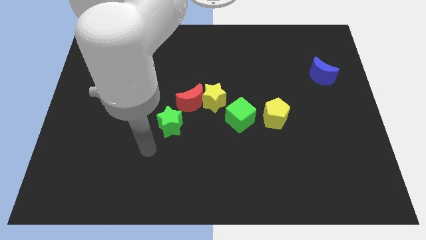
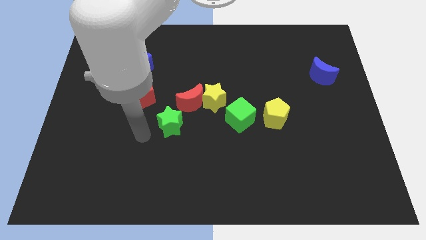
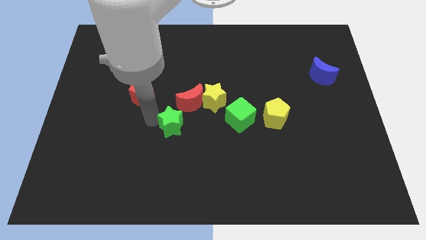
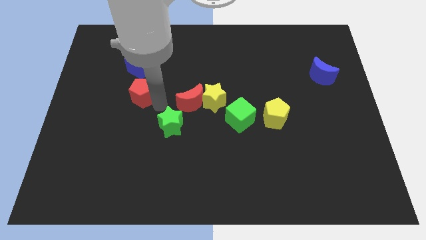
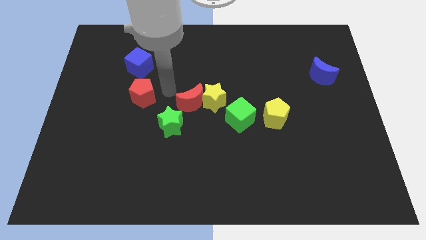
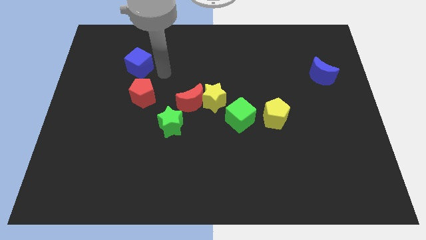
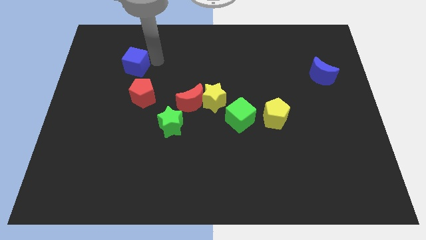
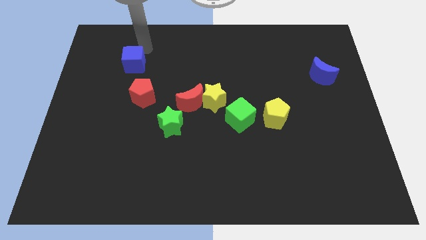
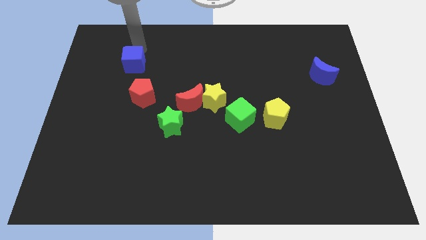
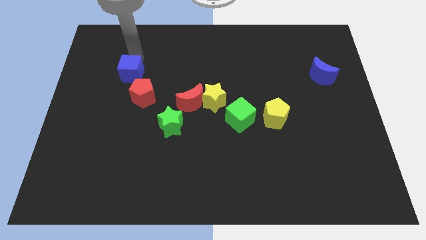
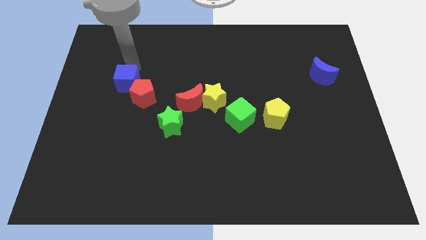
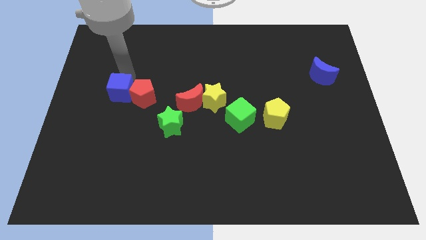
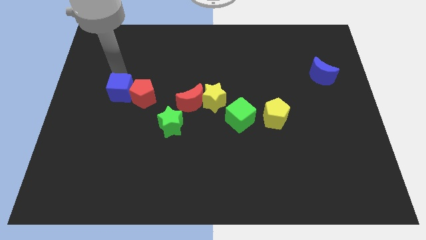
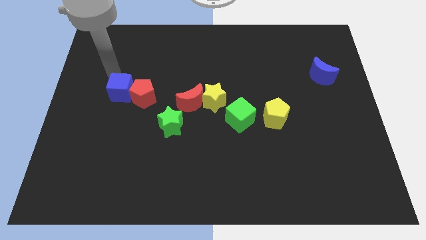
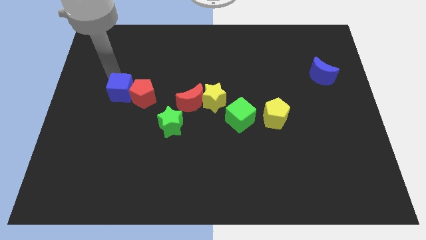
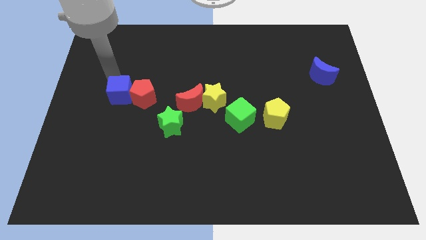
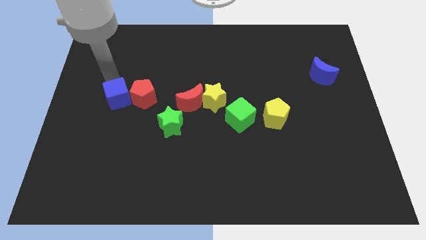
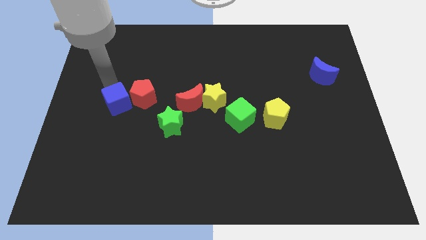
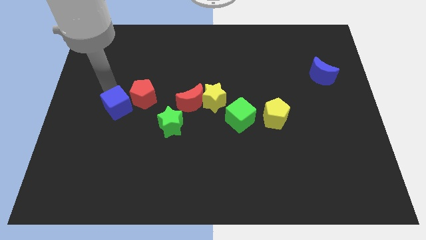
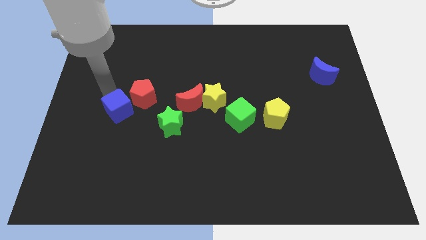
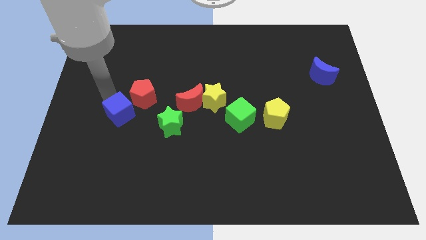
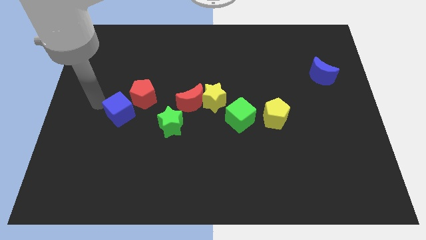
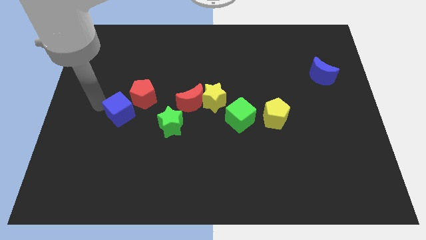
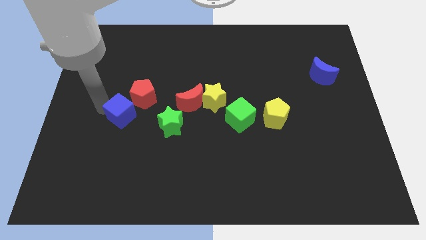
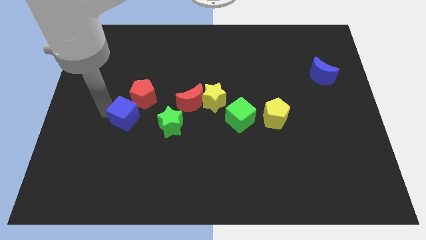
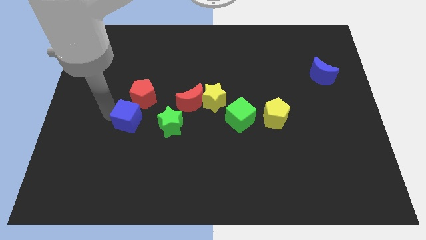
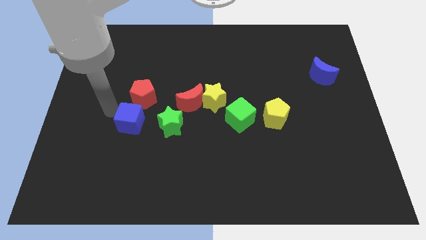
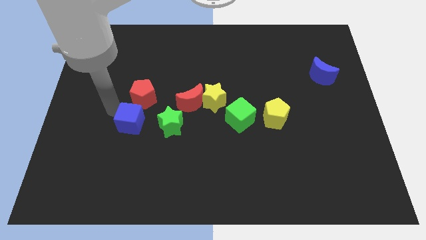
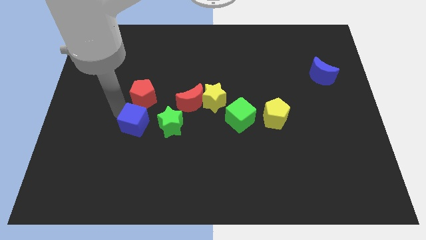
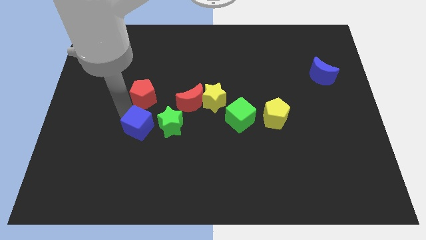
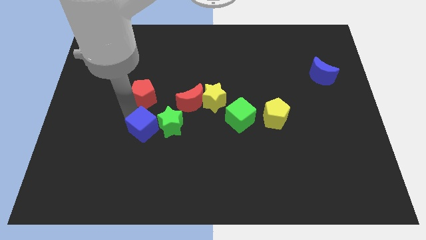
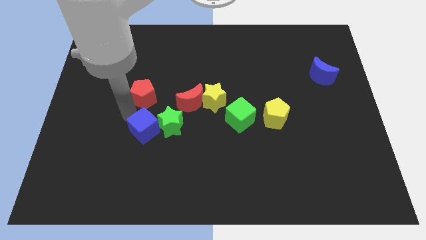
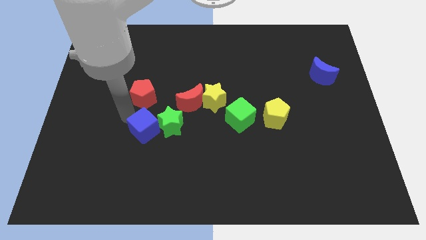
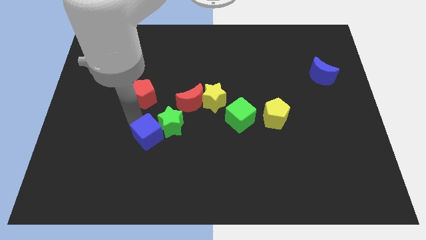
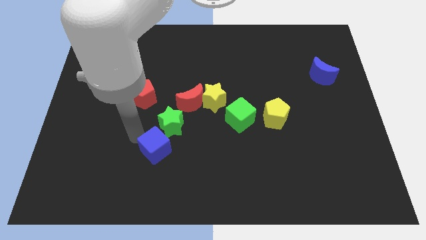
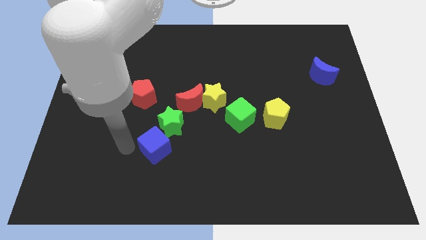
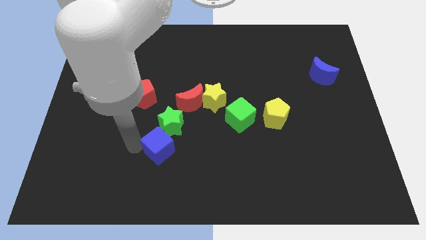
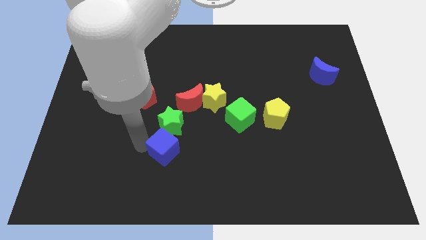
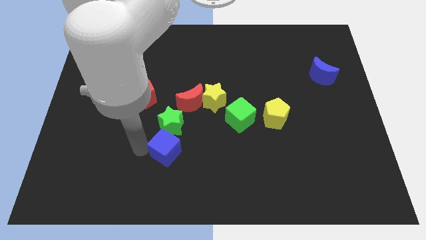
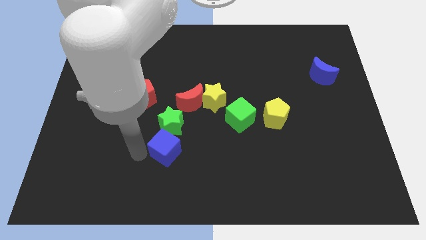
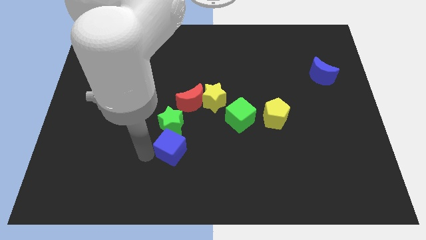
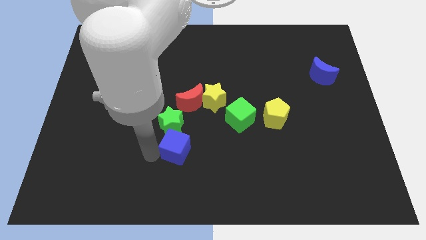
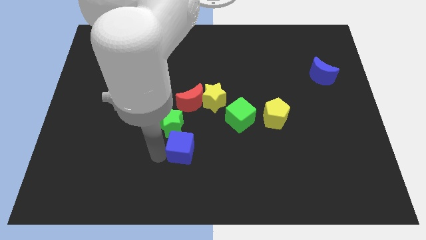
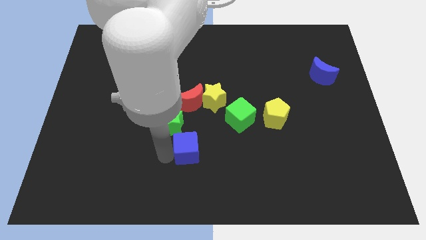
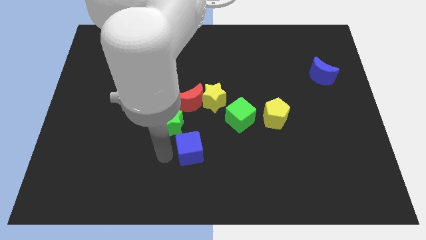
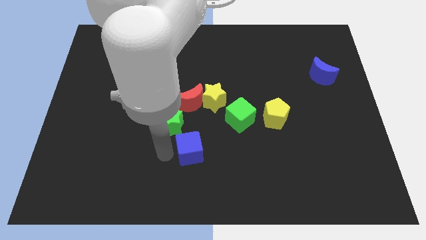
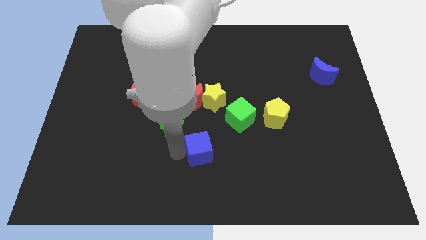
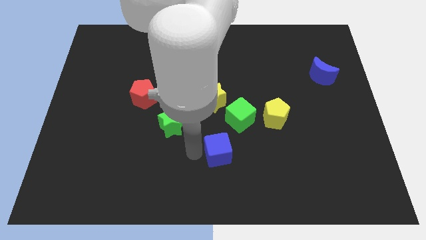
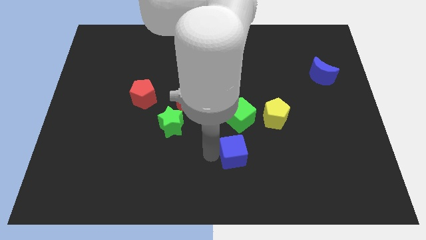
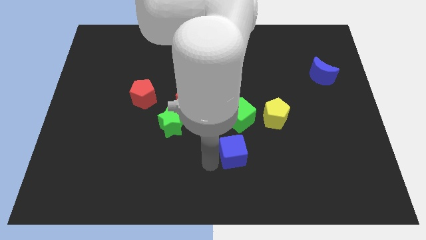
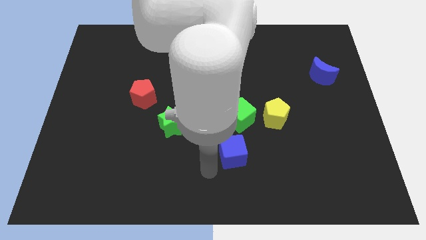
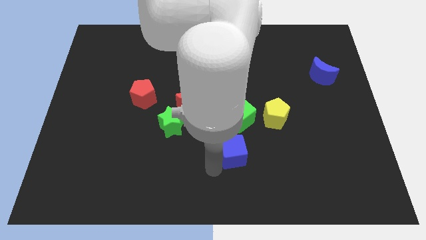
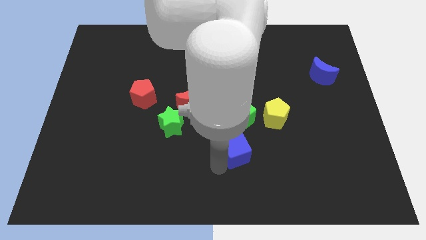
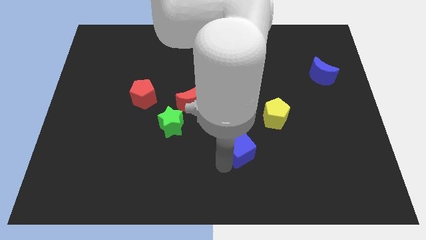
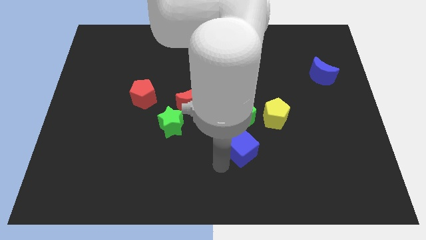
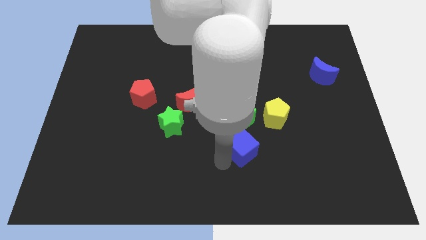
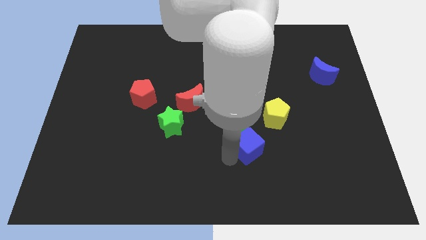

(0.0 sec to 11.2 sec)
push the blue cube to the bottom right of the green cube

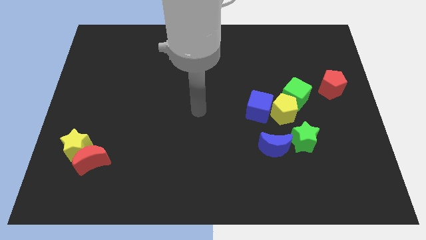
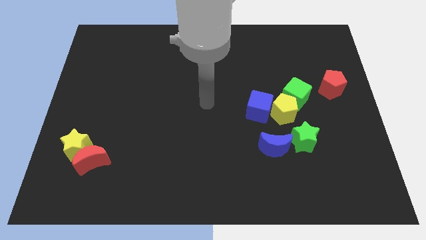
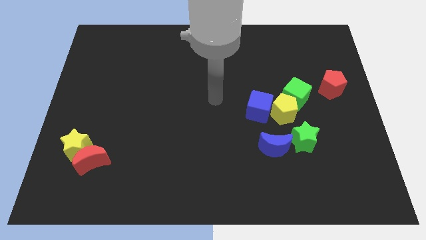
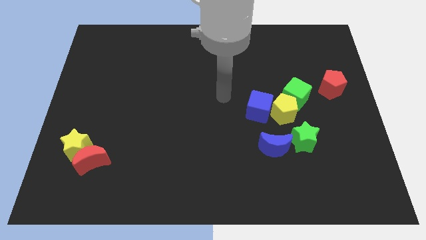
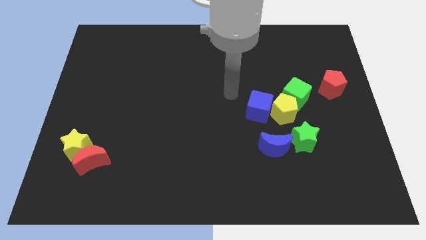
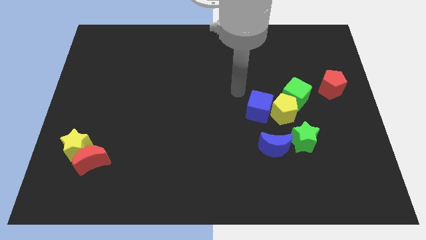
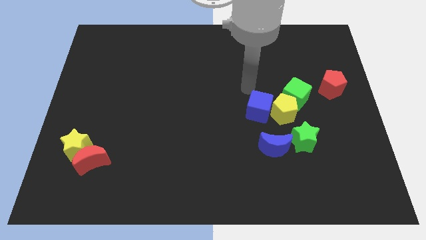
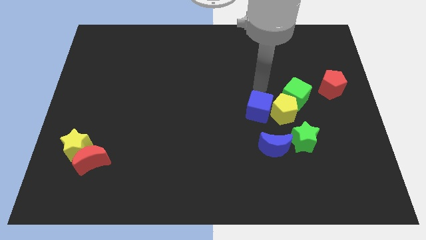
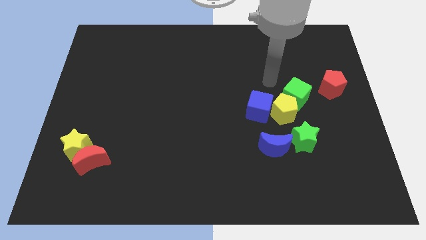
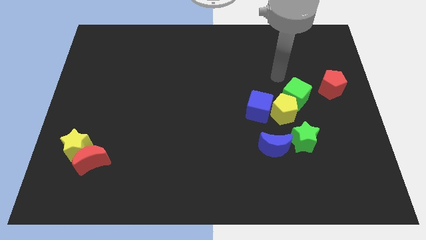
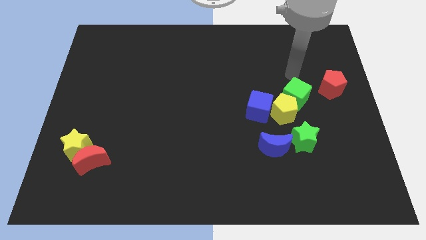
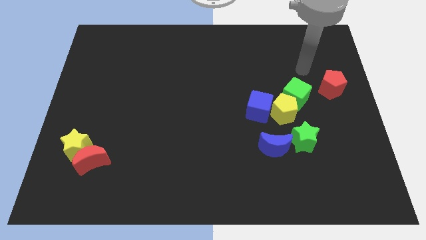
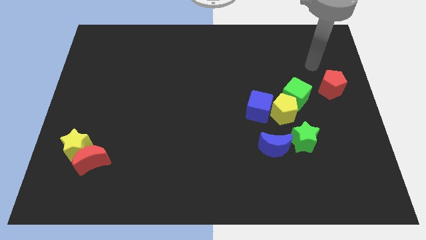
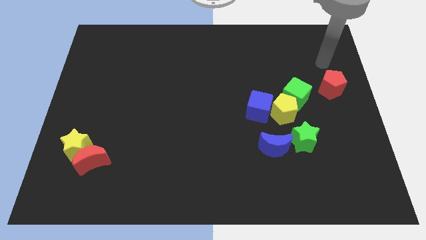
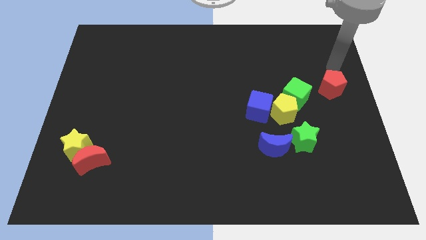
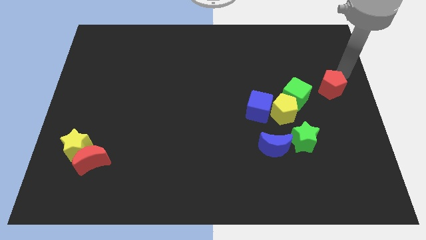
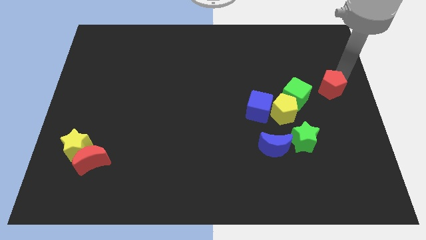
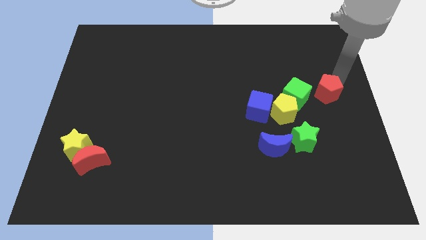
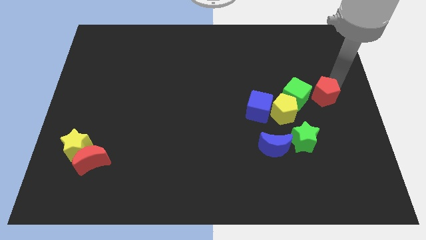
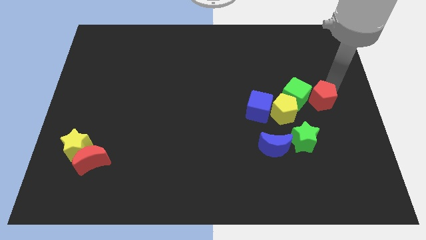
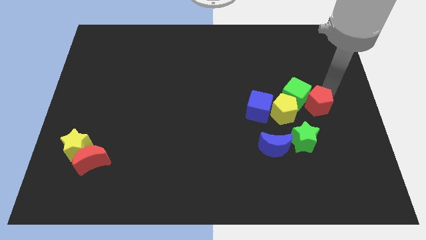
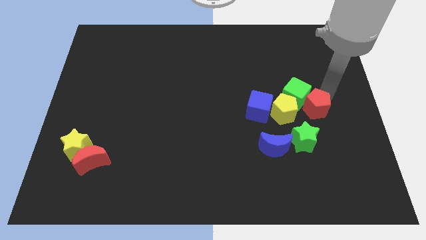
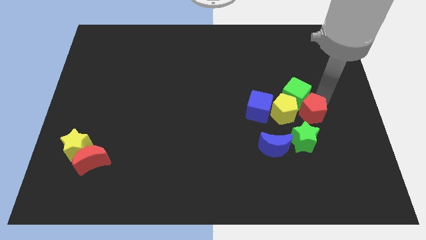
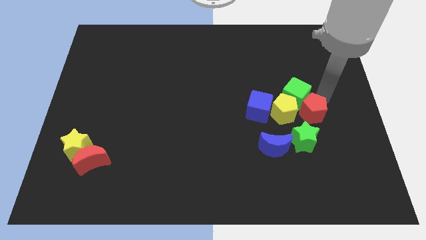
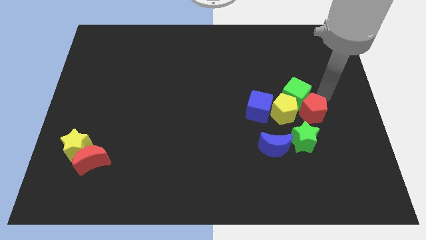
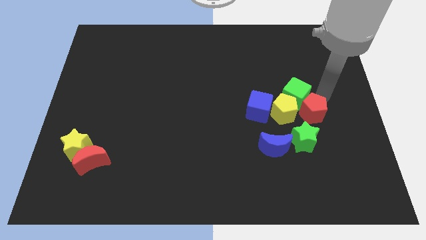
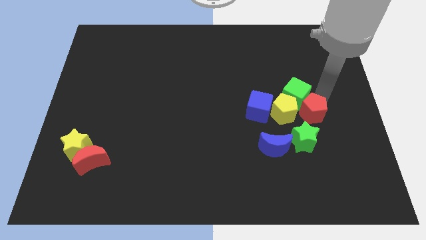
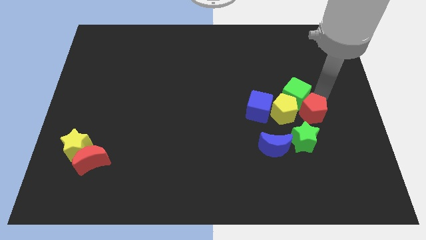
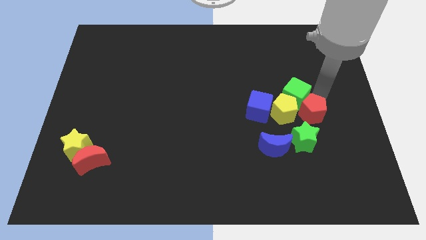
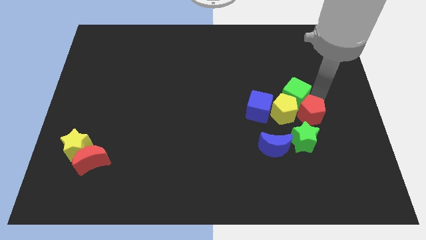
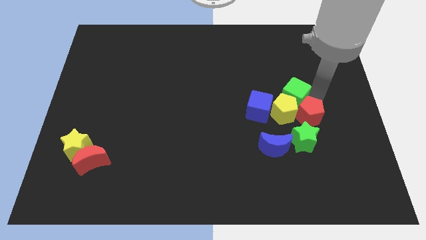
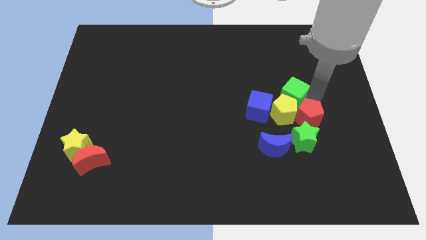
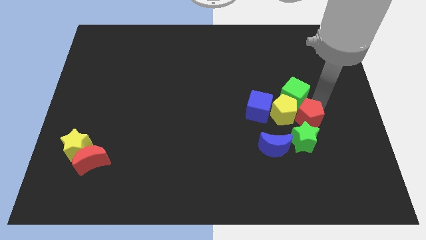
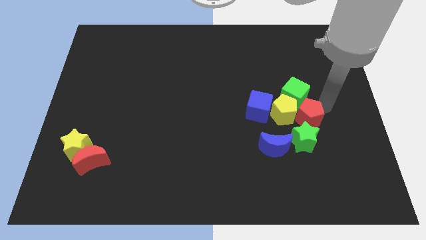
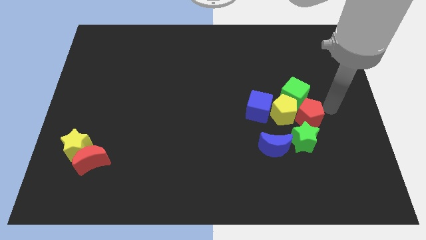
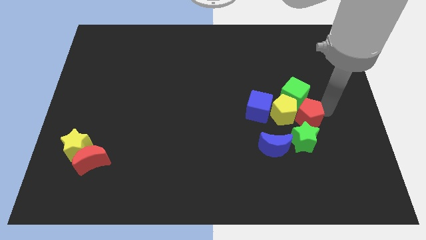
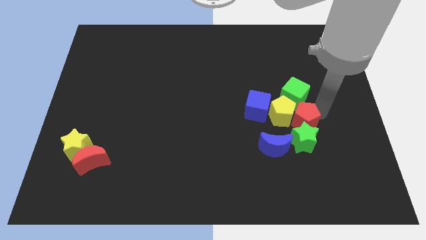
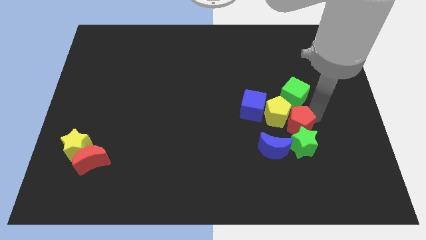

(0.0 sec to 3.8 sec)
put the red pentagon diagonally down and to the right of the blue cube
